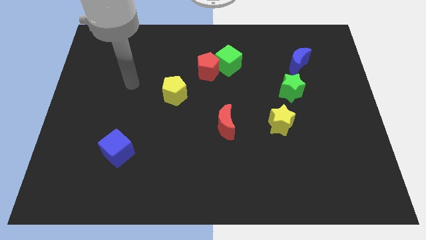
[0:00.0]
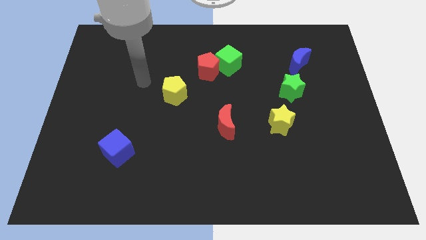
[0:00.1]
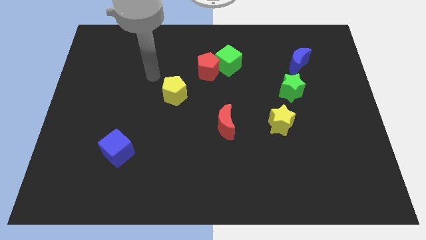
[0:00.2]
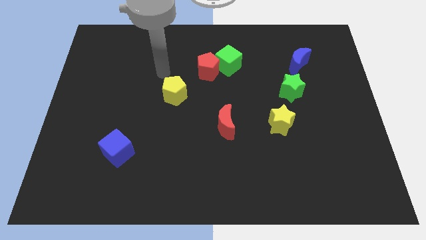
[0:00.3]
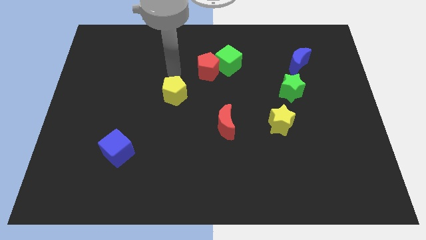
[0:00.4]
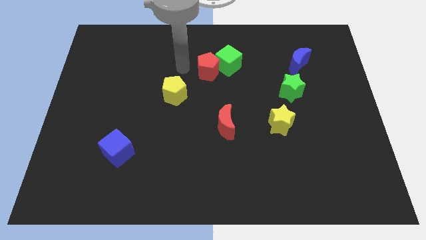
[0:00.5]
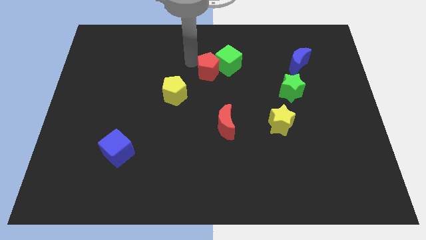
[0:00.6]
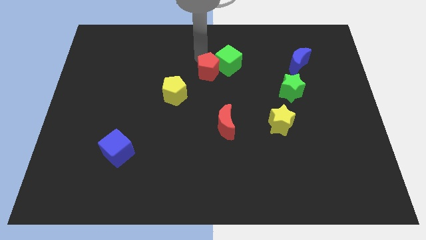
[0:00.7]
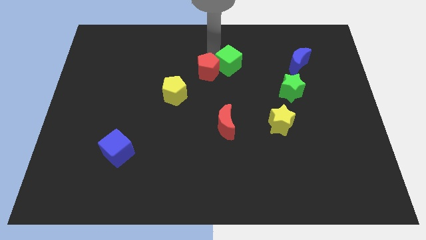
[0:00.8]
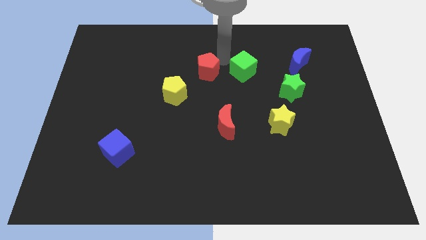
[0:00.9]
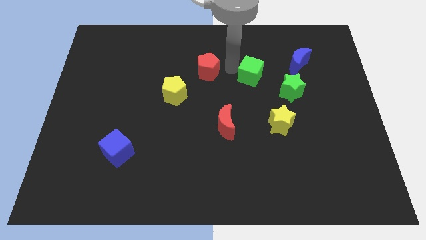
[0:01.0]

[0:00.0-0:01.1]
pull the red pentagon apart from the green cube

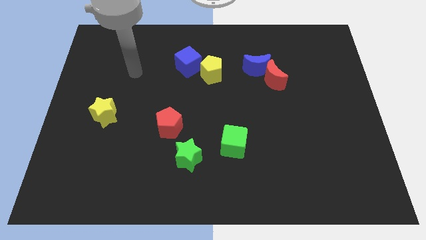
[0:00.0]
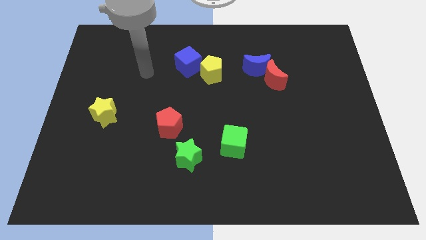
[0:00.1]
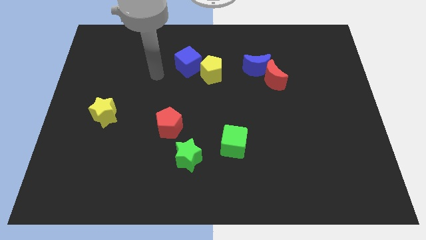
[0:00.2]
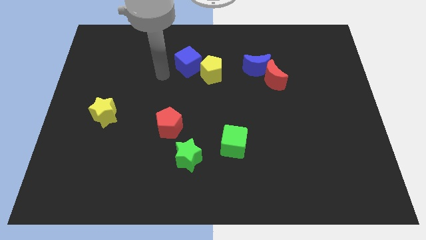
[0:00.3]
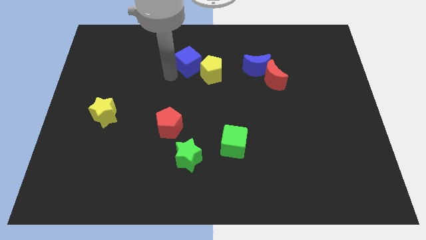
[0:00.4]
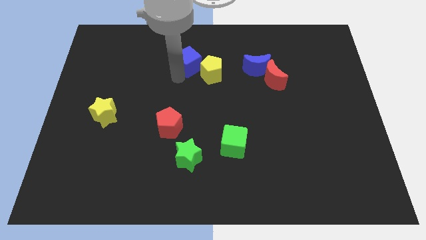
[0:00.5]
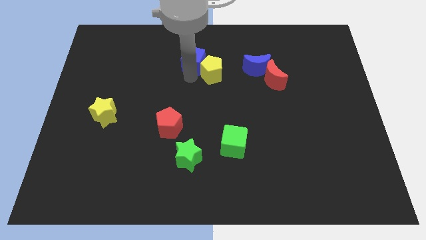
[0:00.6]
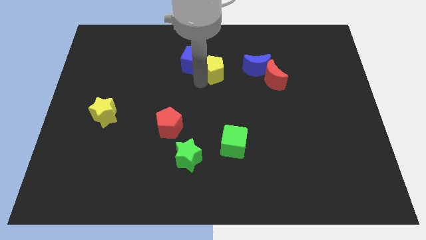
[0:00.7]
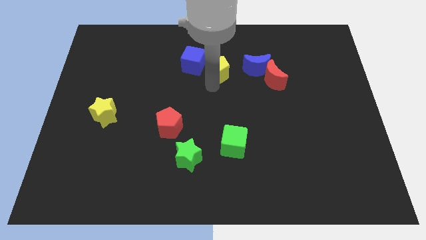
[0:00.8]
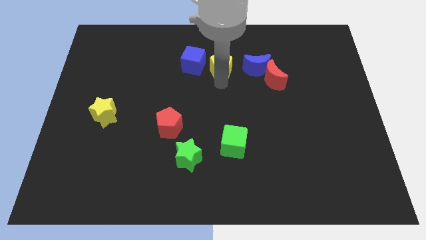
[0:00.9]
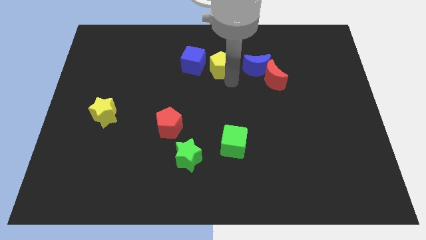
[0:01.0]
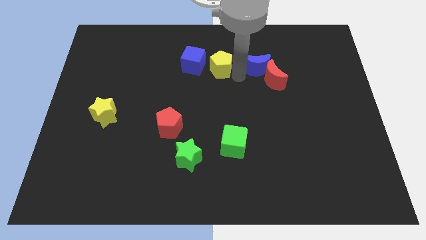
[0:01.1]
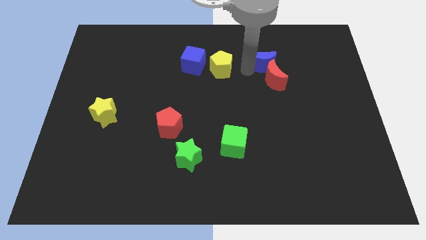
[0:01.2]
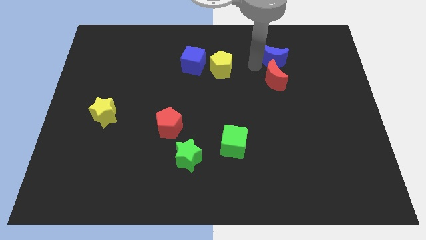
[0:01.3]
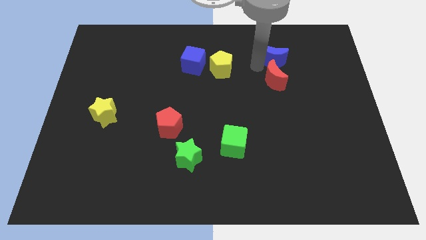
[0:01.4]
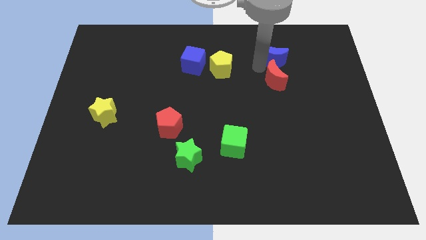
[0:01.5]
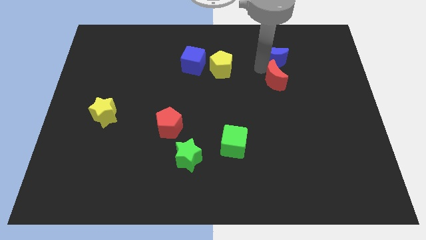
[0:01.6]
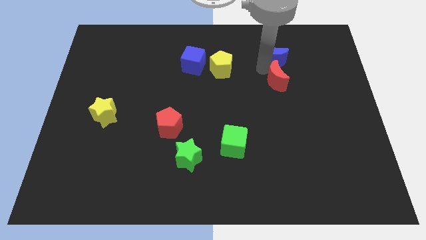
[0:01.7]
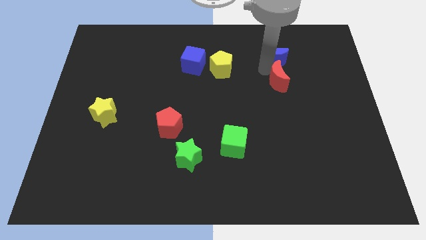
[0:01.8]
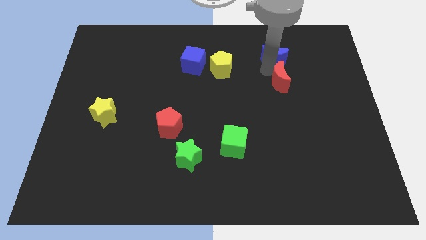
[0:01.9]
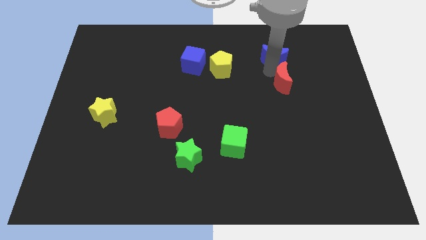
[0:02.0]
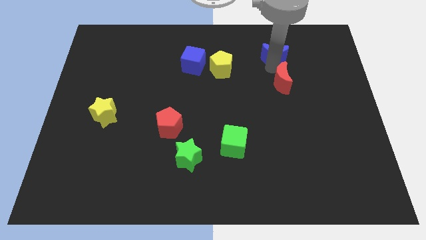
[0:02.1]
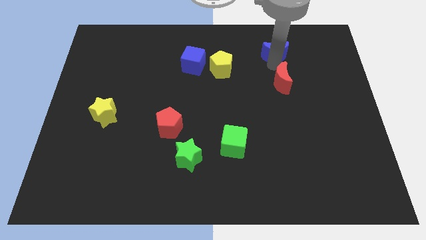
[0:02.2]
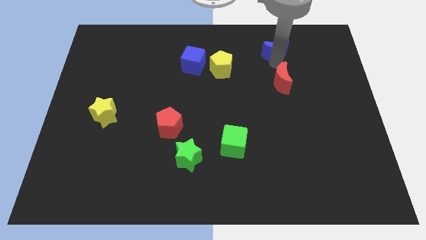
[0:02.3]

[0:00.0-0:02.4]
move the red moon away from the blue moon

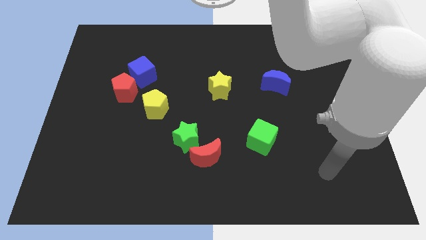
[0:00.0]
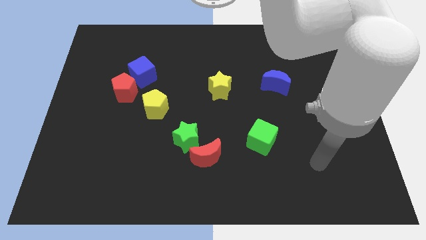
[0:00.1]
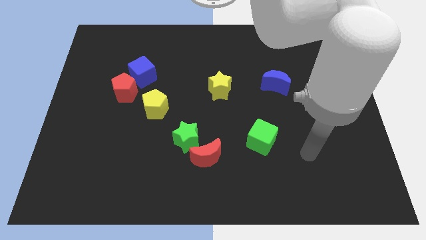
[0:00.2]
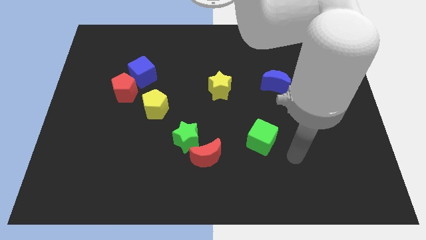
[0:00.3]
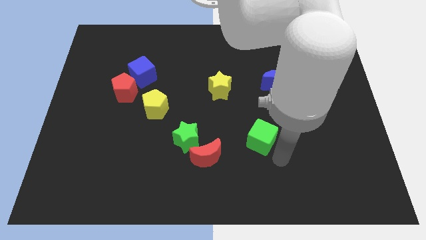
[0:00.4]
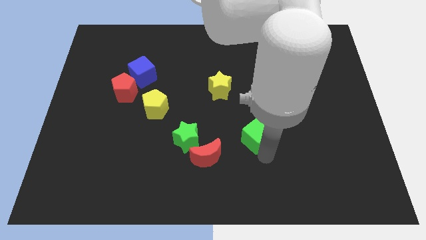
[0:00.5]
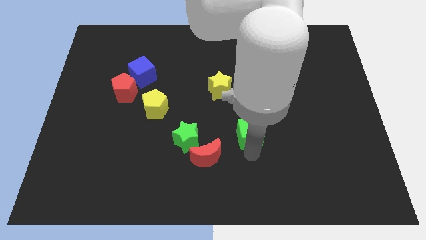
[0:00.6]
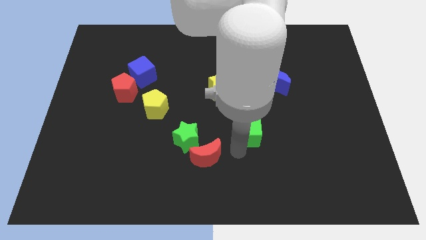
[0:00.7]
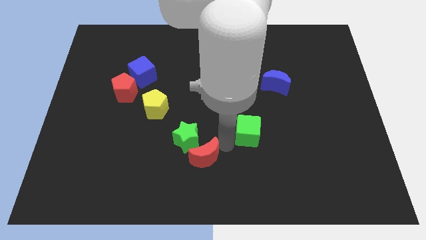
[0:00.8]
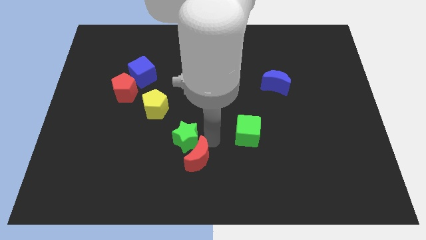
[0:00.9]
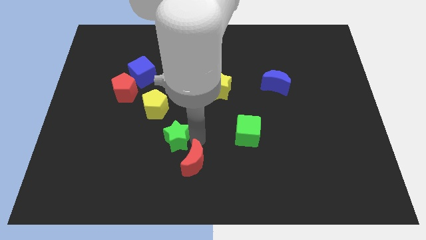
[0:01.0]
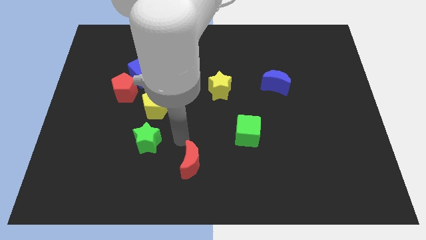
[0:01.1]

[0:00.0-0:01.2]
separate the red moon from the green star

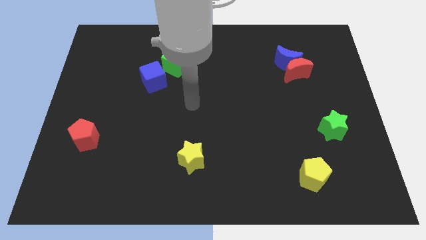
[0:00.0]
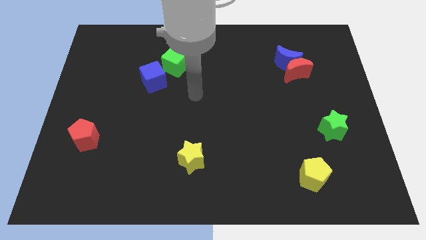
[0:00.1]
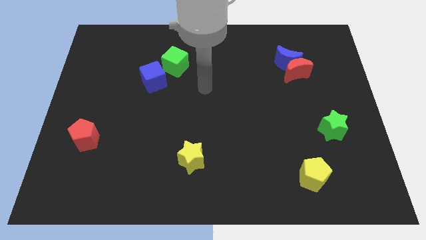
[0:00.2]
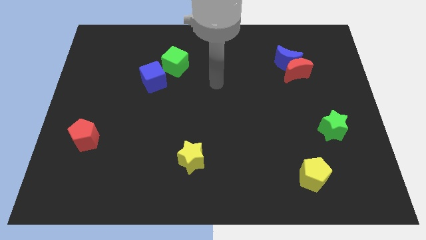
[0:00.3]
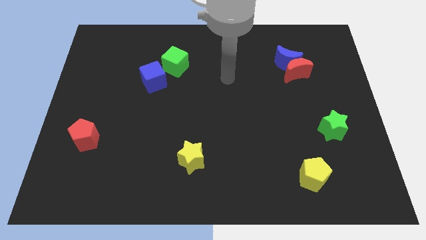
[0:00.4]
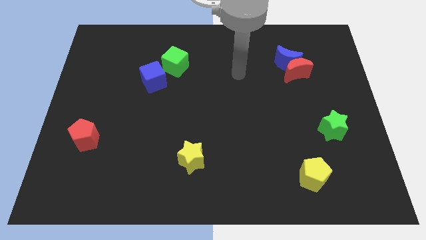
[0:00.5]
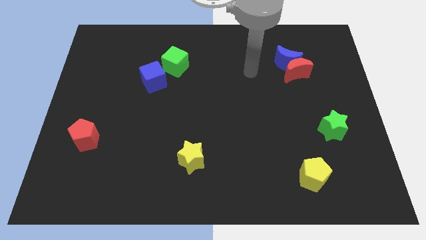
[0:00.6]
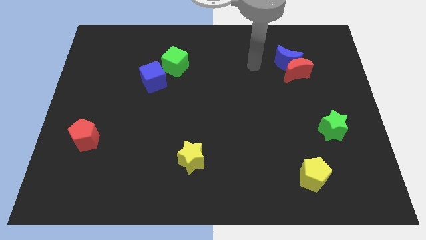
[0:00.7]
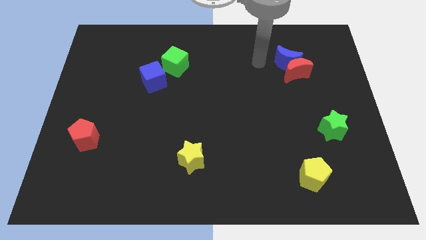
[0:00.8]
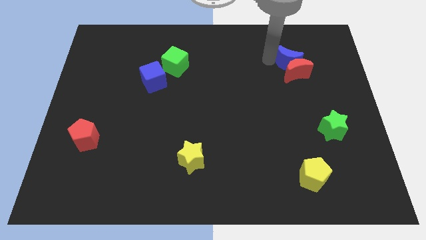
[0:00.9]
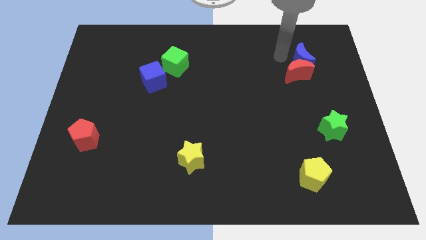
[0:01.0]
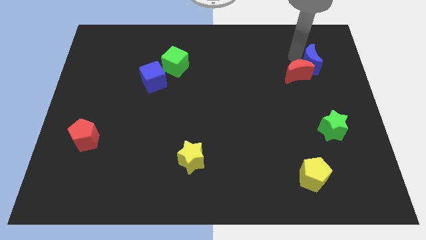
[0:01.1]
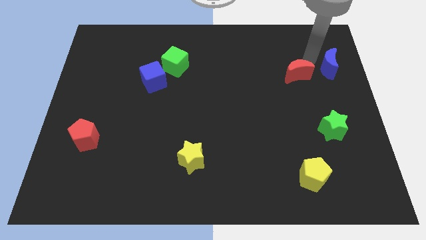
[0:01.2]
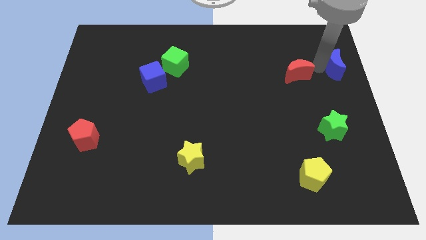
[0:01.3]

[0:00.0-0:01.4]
pull the red moon apart from the blue moon

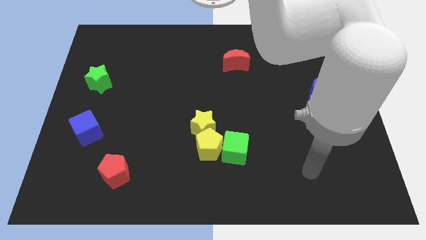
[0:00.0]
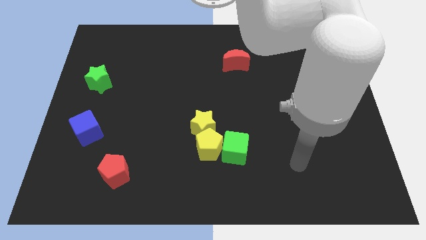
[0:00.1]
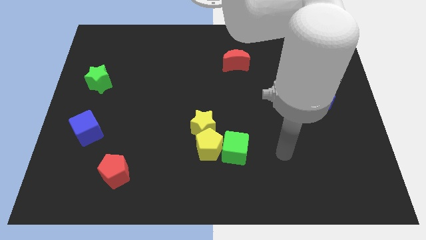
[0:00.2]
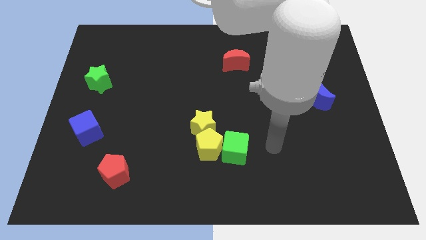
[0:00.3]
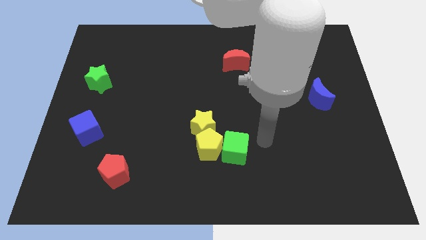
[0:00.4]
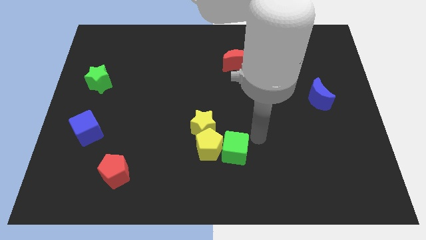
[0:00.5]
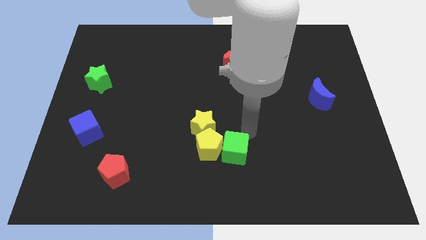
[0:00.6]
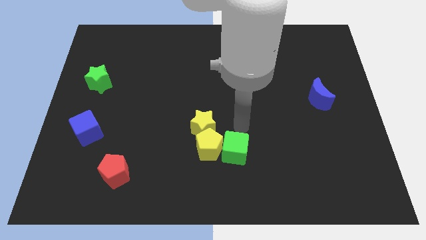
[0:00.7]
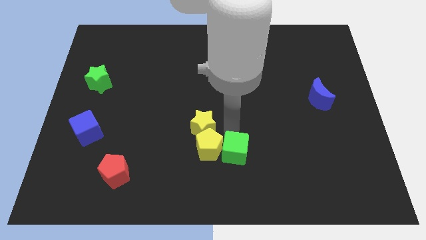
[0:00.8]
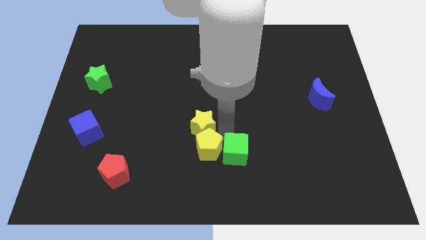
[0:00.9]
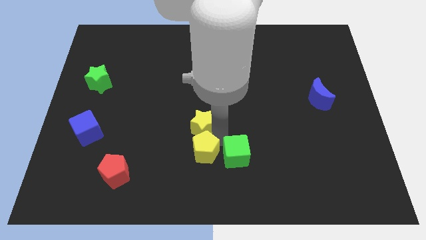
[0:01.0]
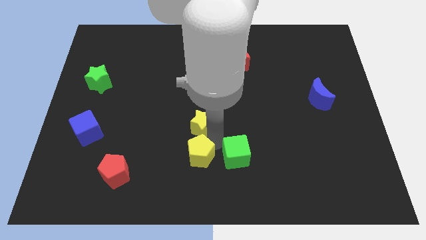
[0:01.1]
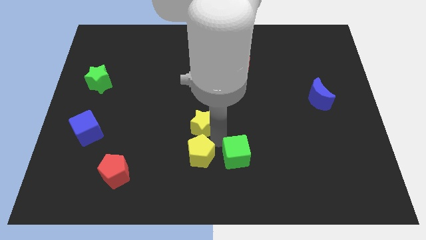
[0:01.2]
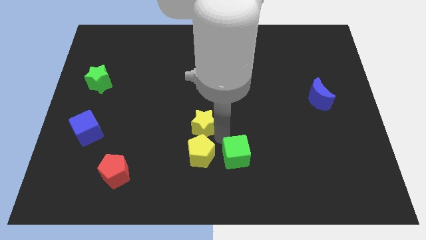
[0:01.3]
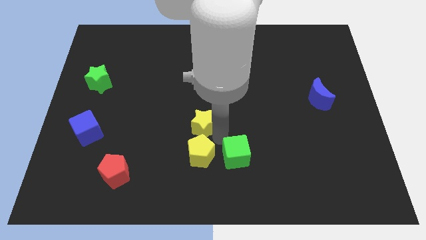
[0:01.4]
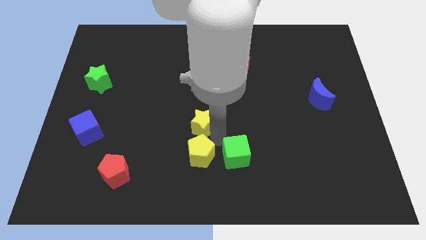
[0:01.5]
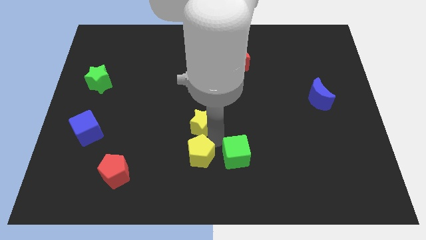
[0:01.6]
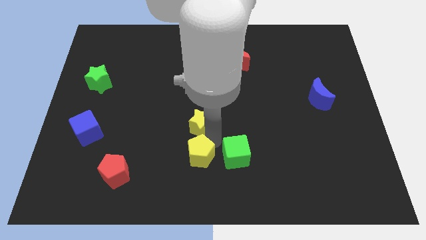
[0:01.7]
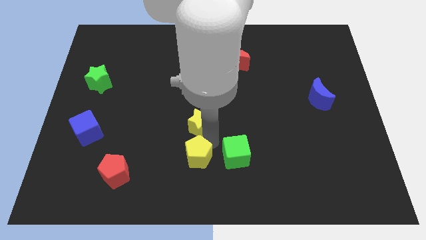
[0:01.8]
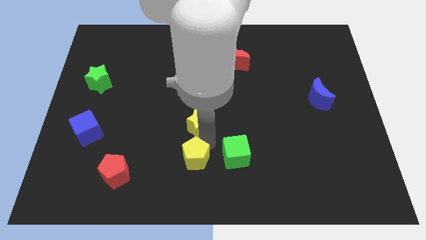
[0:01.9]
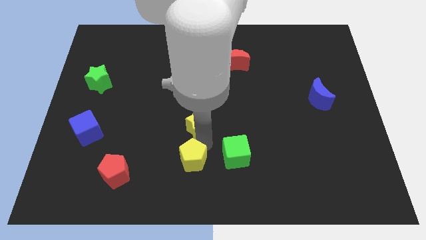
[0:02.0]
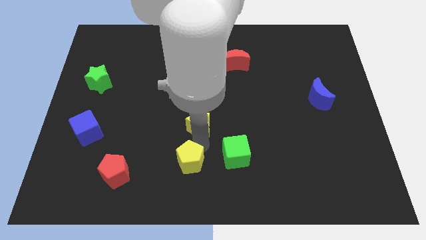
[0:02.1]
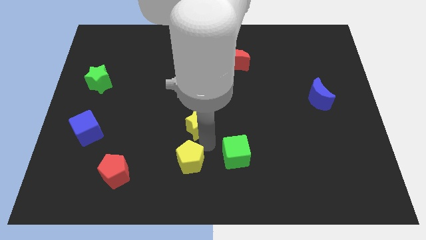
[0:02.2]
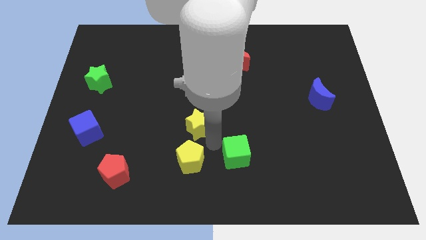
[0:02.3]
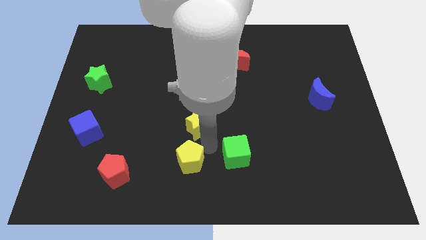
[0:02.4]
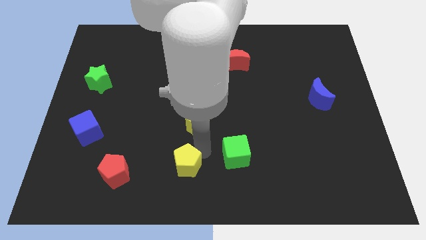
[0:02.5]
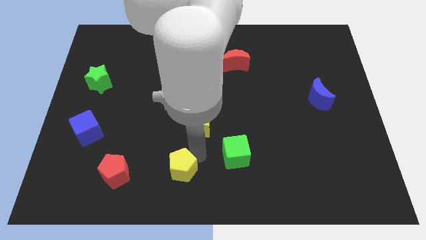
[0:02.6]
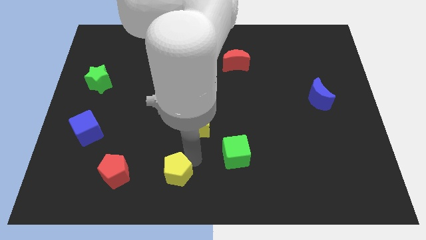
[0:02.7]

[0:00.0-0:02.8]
pull the yellow pentagon apart from the yellow star and green cube

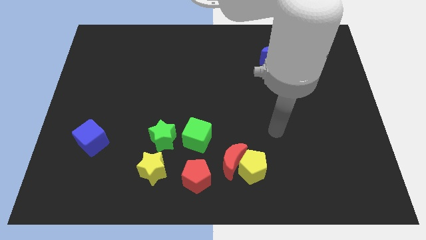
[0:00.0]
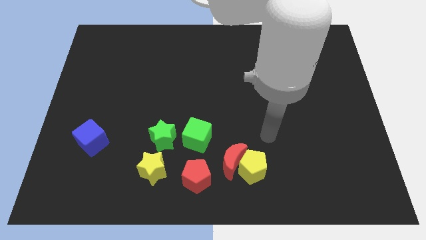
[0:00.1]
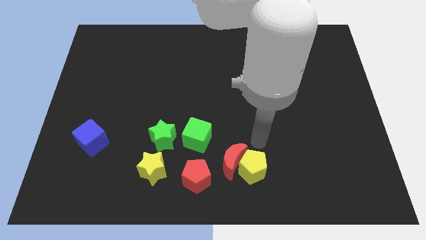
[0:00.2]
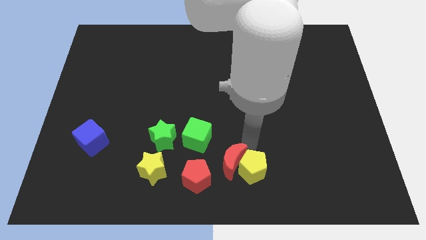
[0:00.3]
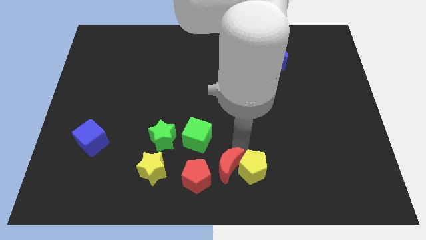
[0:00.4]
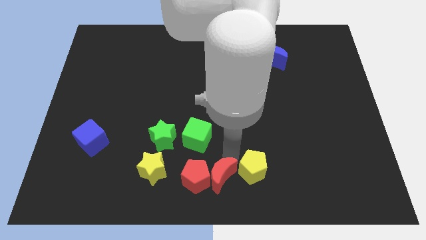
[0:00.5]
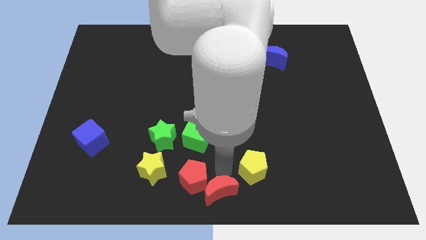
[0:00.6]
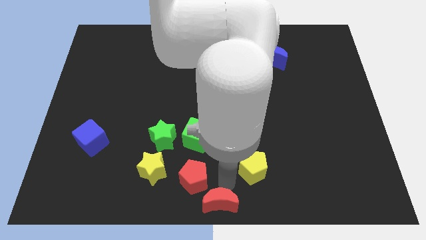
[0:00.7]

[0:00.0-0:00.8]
pull the yellow pentagon apart from the red moon
